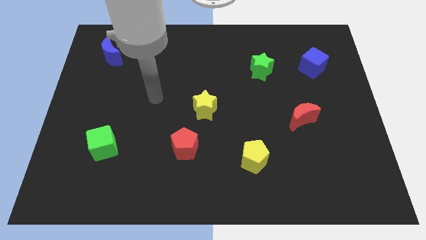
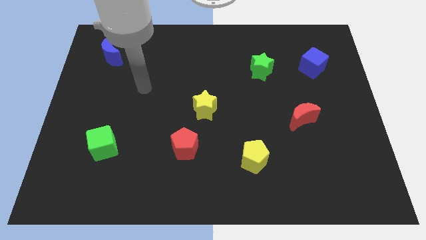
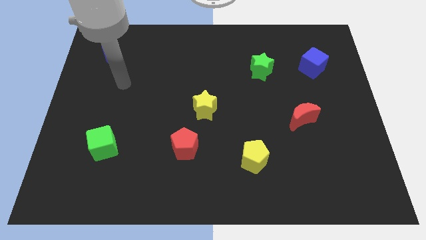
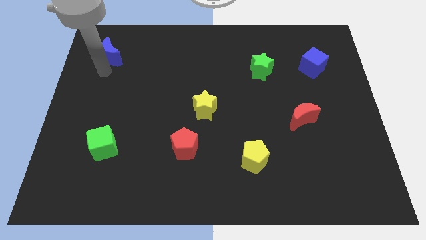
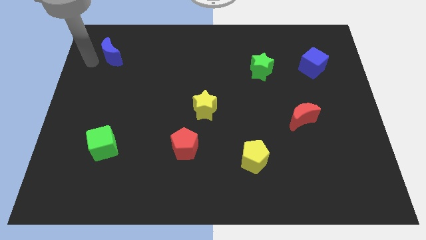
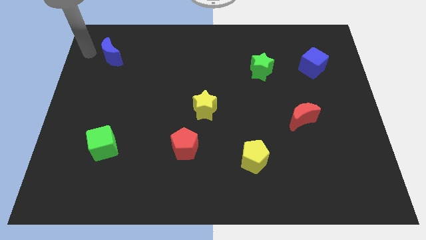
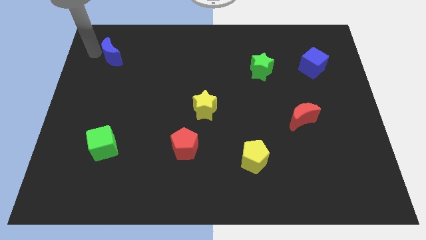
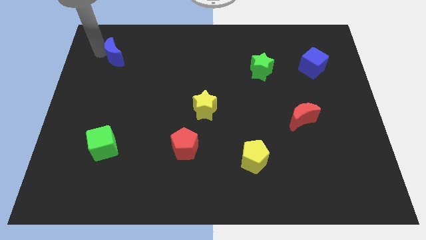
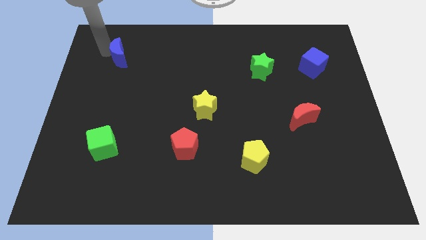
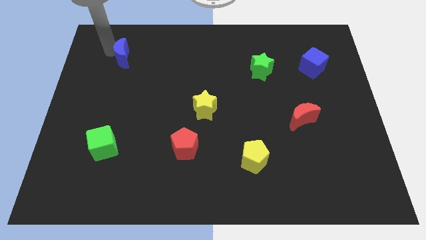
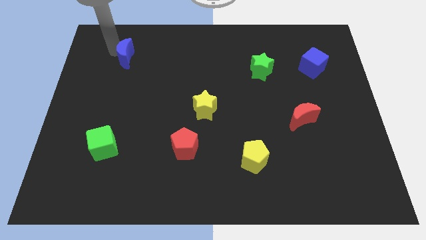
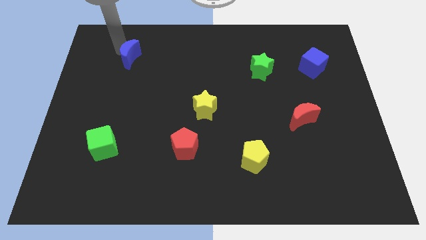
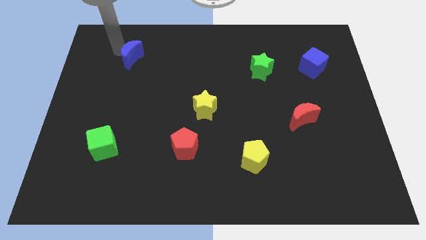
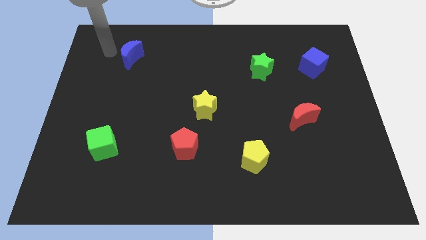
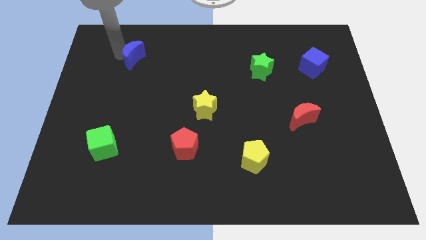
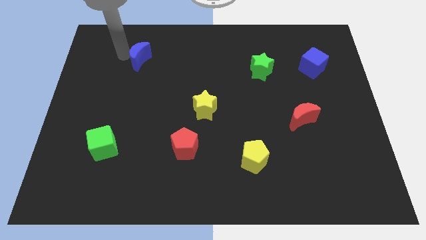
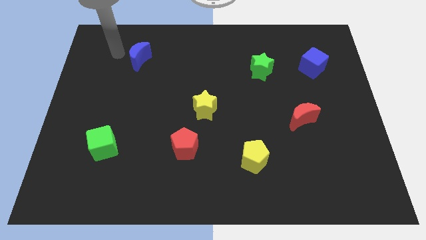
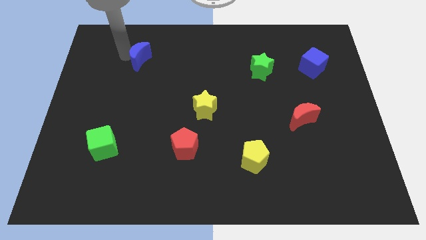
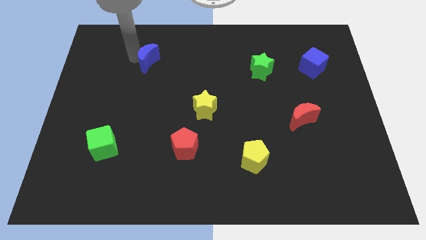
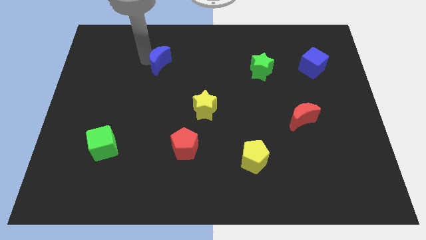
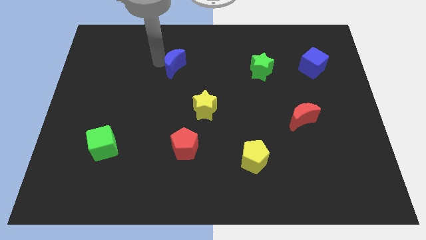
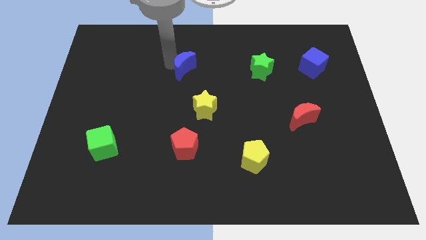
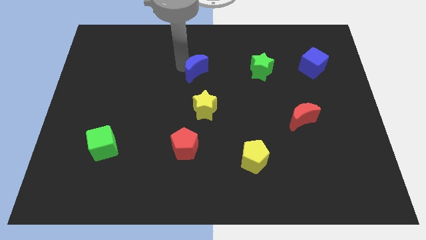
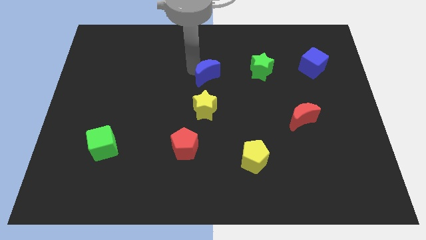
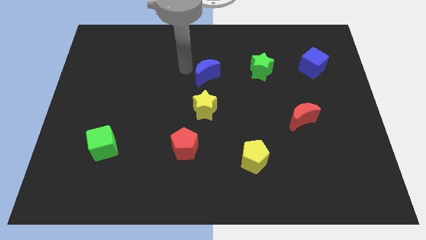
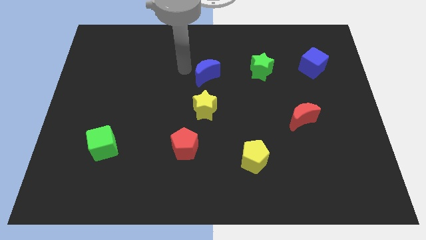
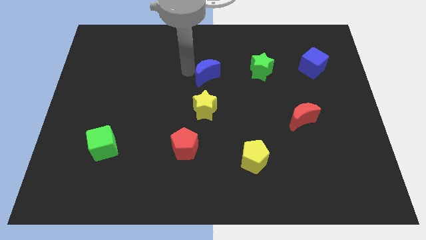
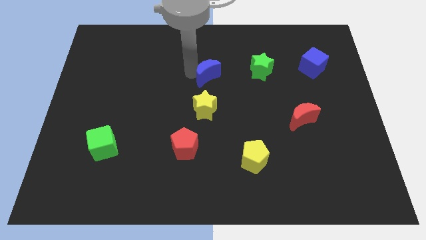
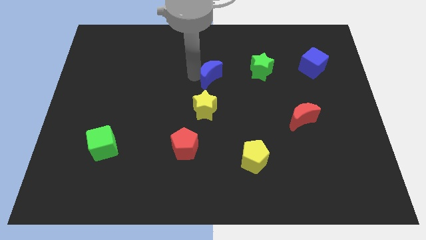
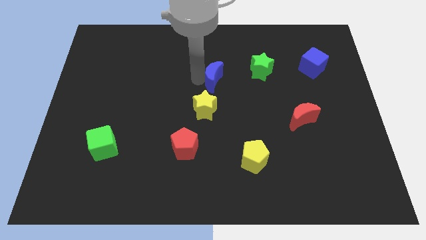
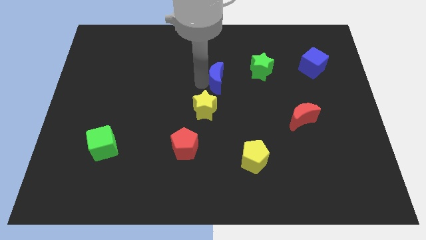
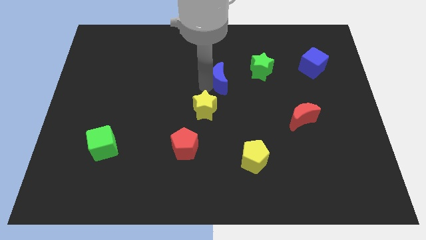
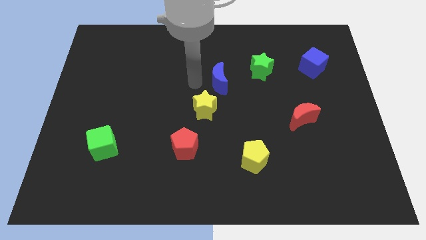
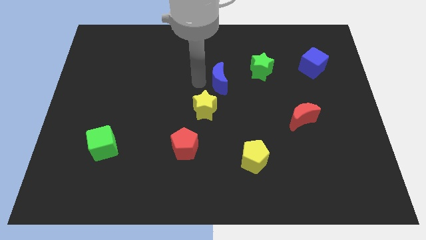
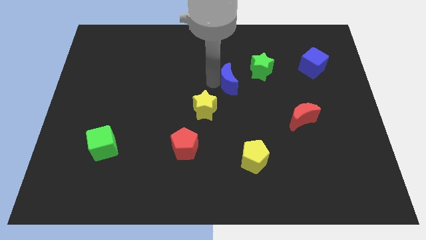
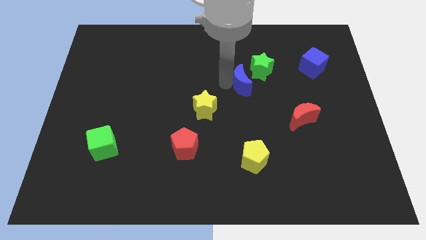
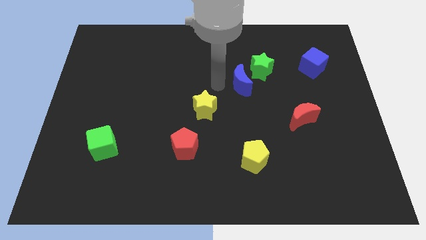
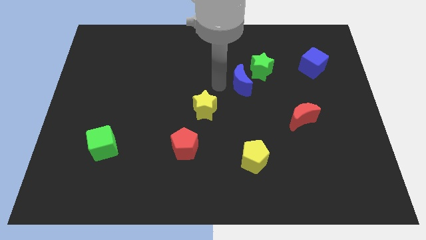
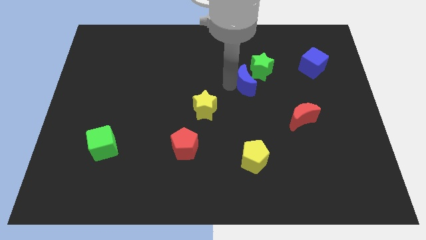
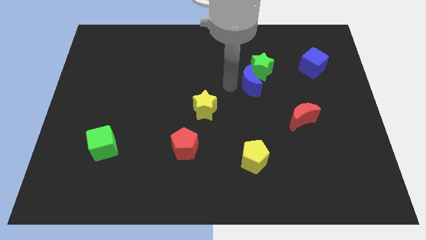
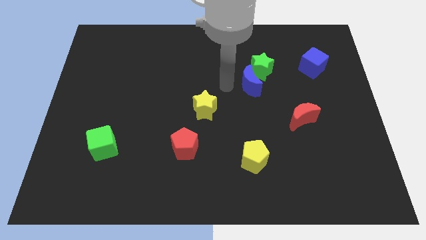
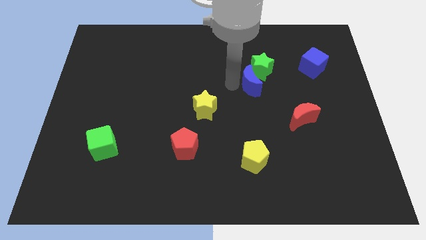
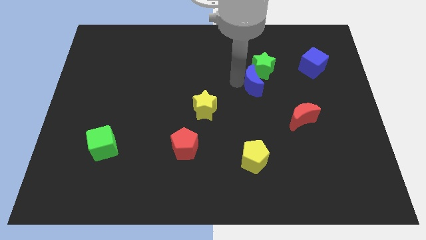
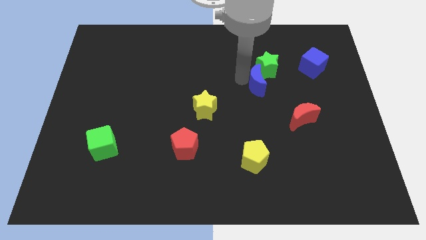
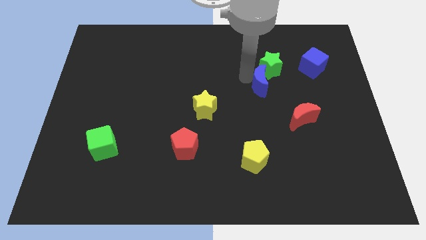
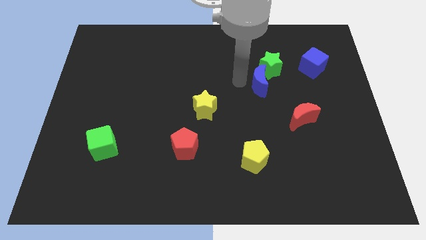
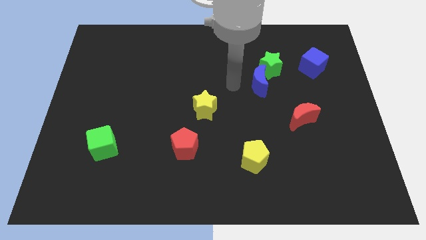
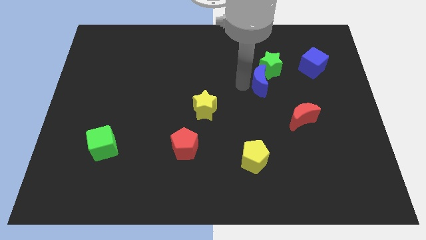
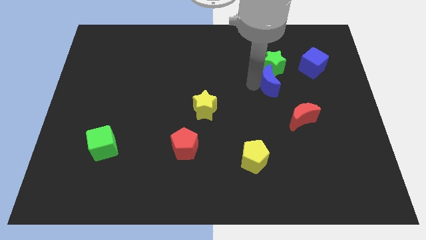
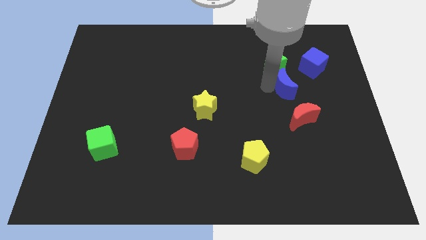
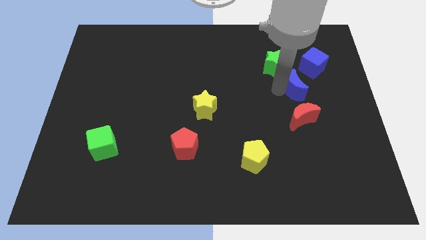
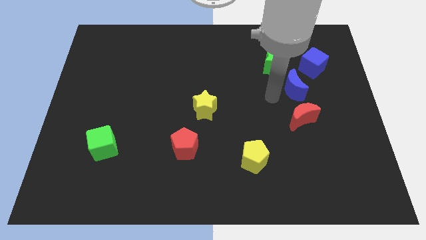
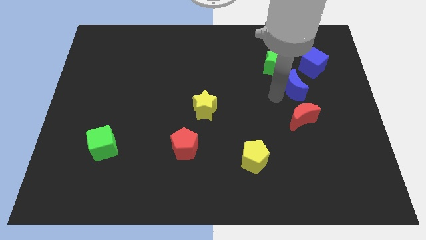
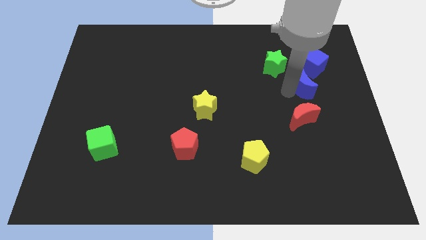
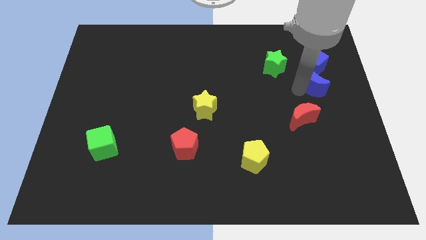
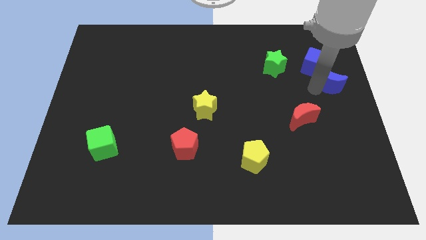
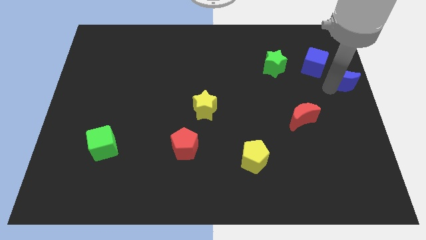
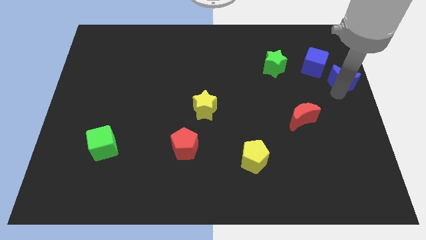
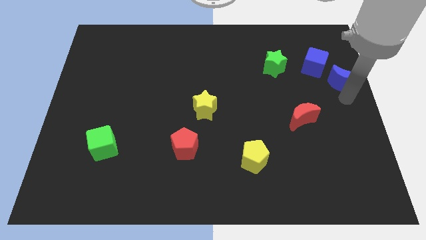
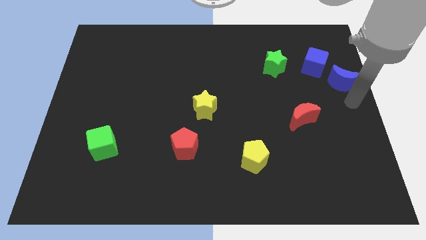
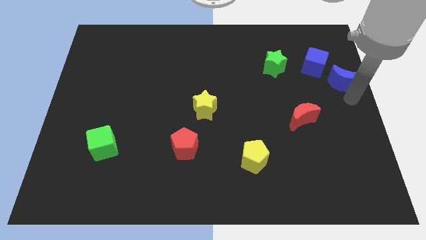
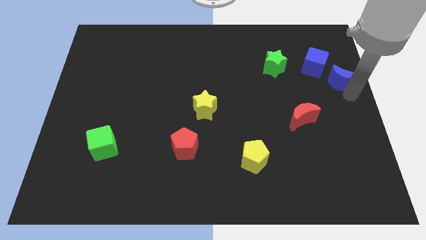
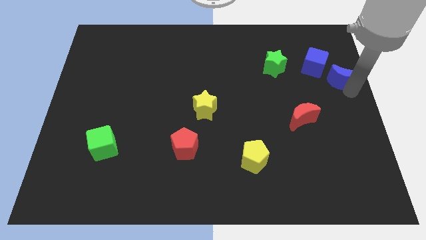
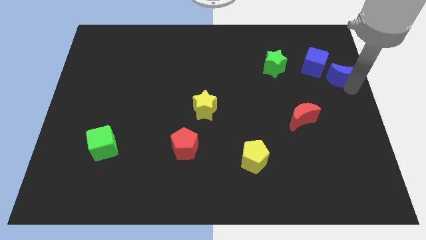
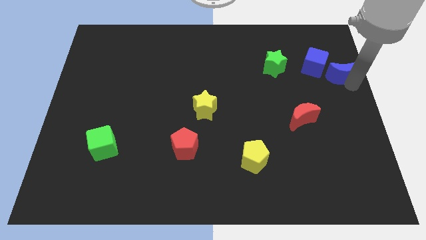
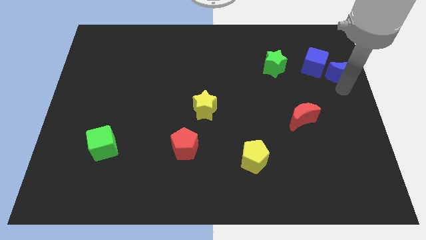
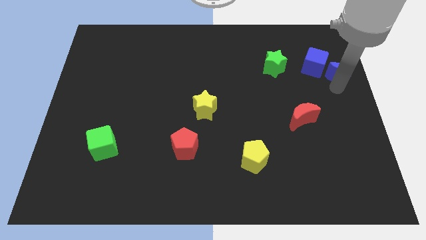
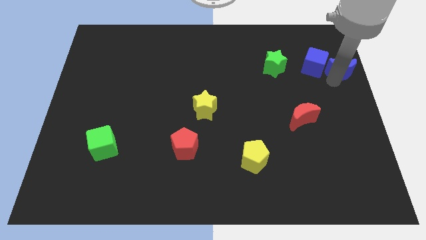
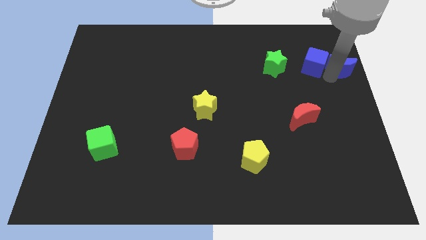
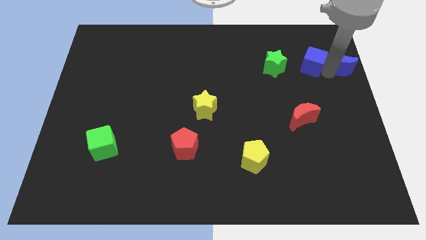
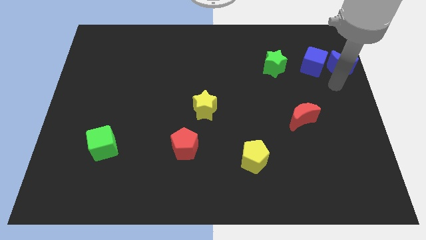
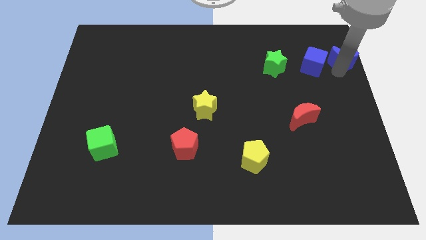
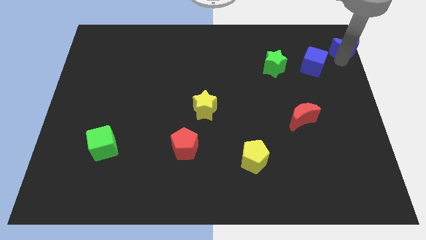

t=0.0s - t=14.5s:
slide the blue moon to the top right
